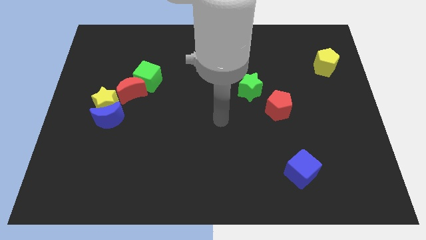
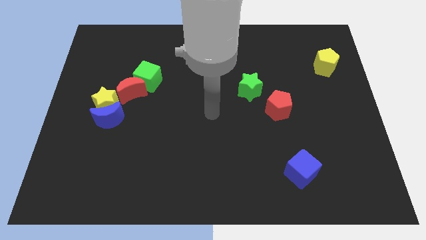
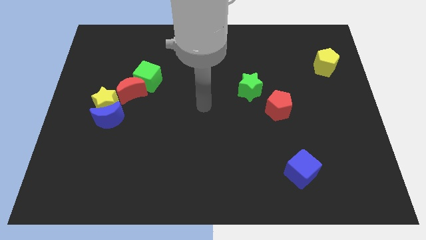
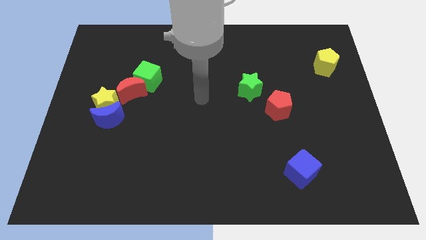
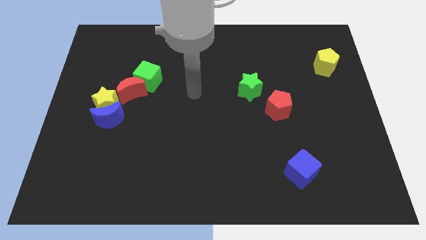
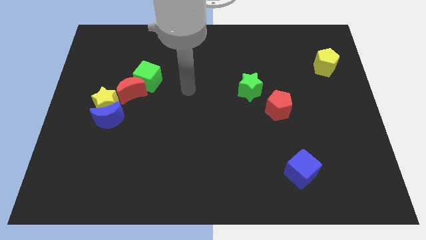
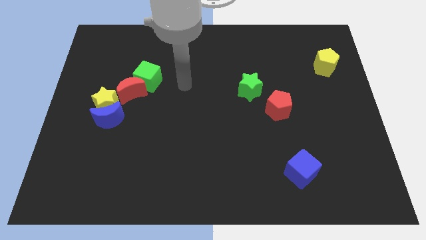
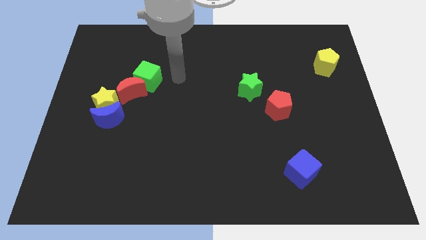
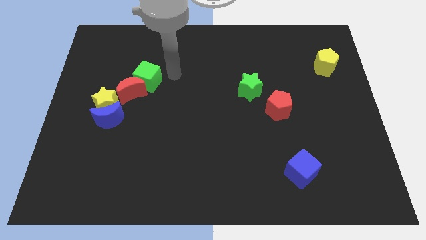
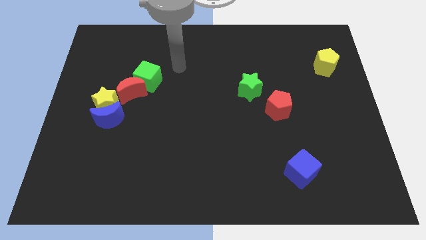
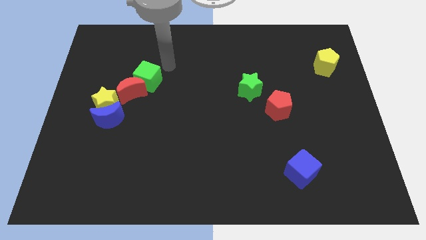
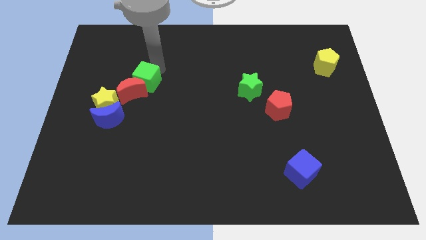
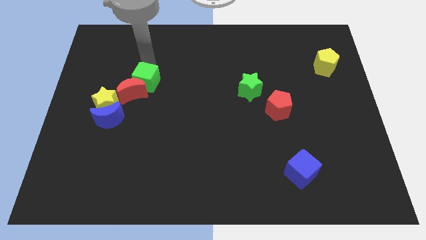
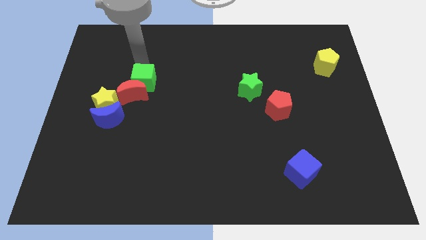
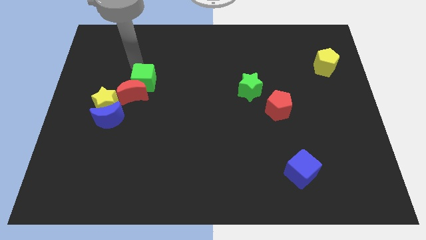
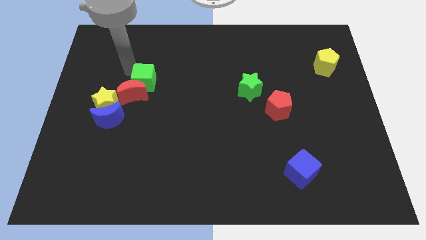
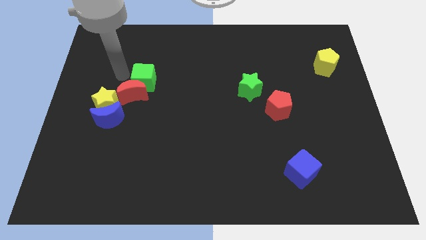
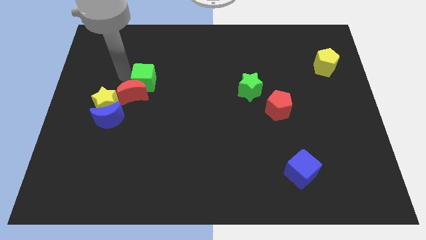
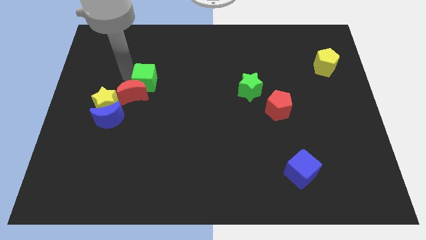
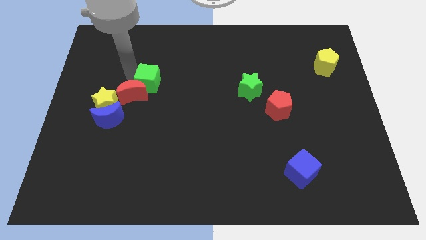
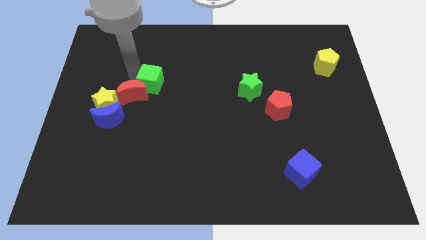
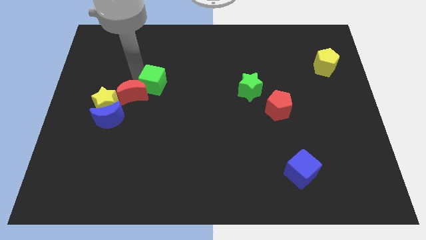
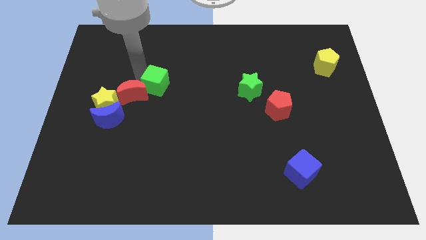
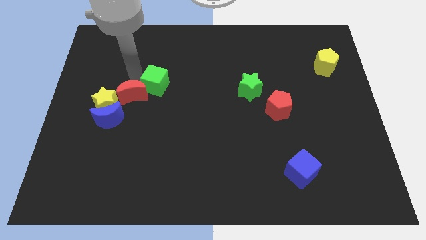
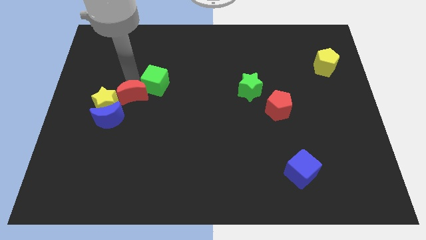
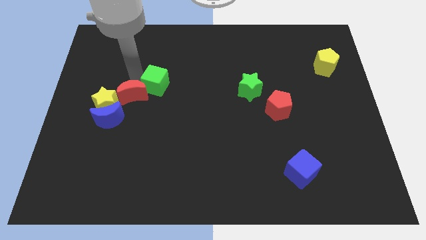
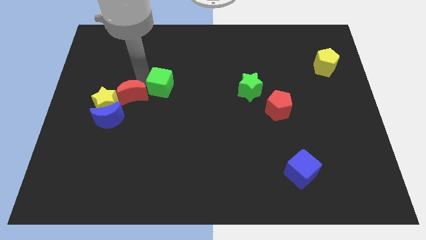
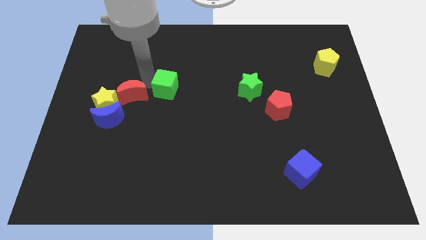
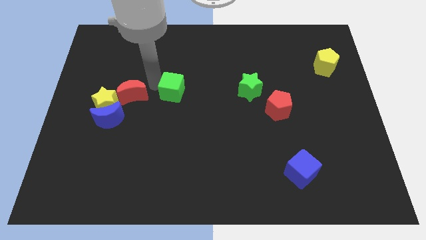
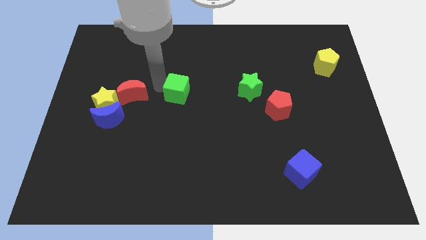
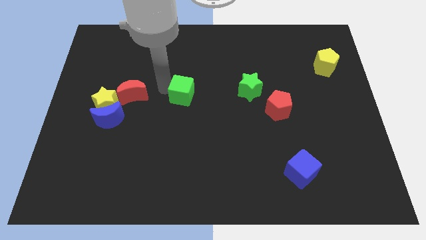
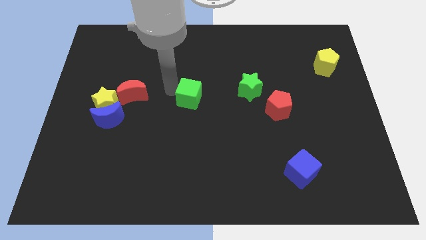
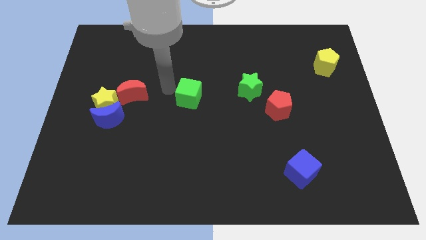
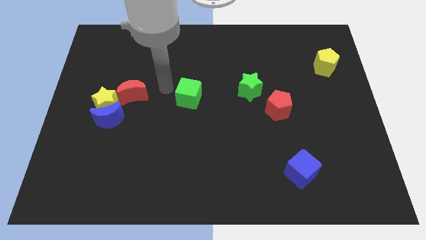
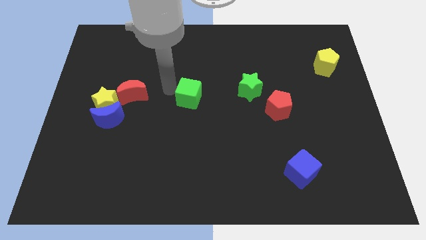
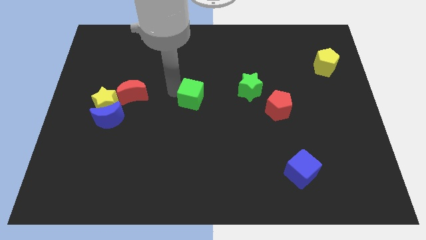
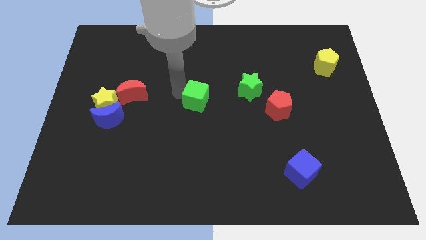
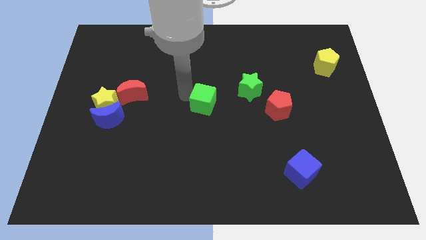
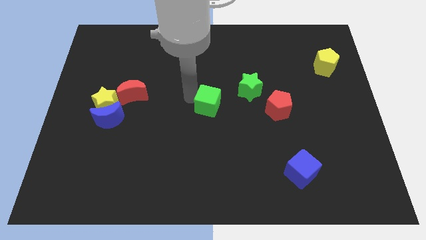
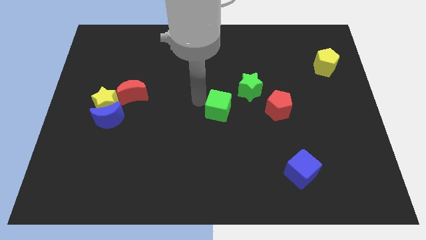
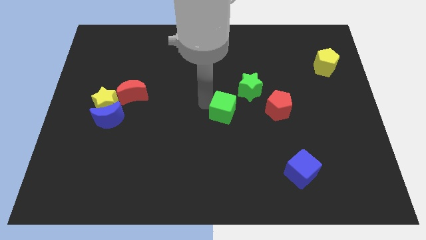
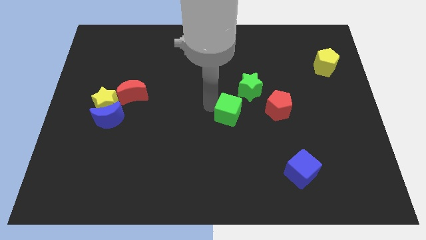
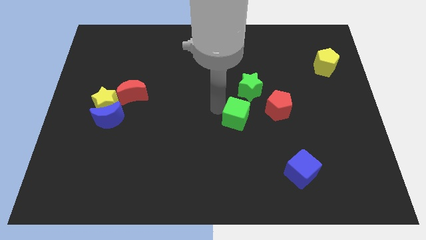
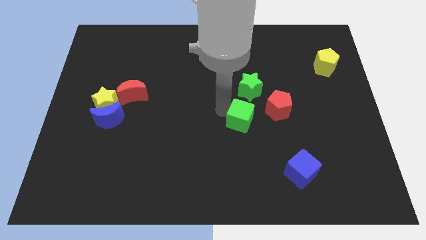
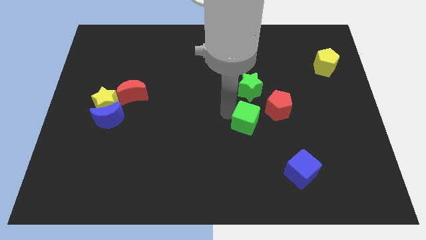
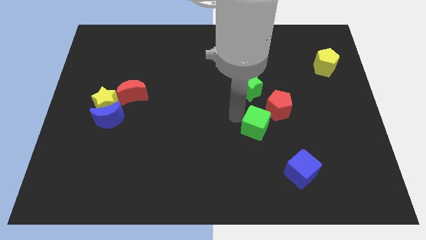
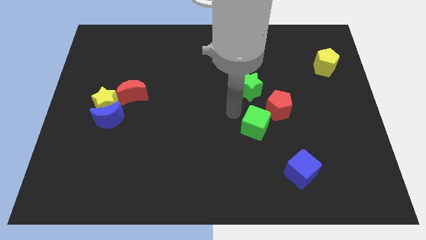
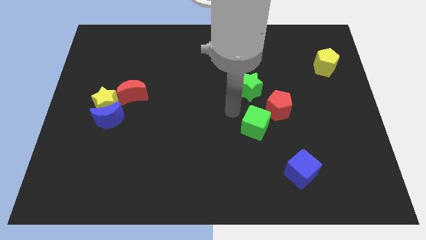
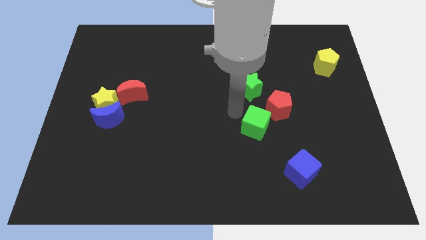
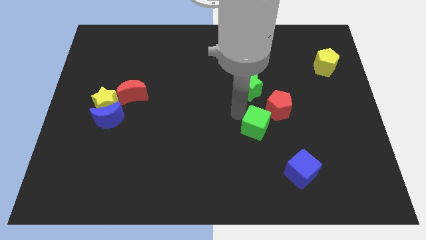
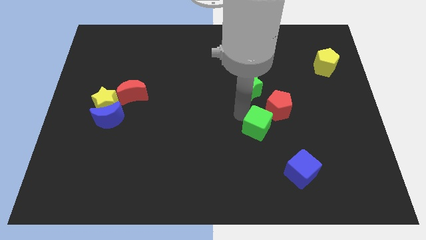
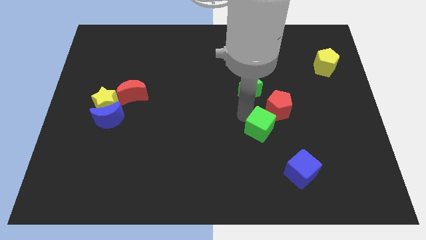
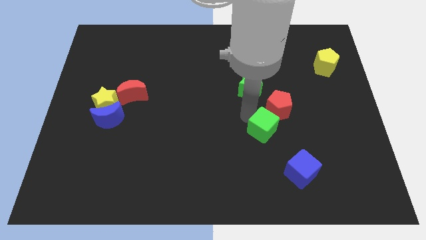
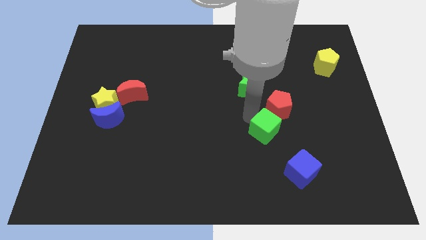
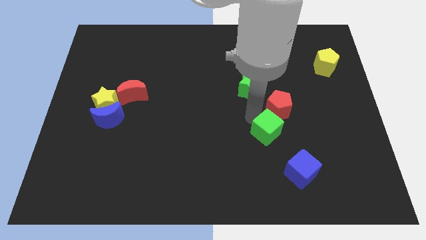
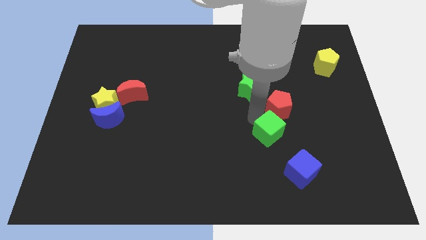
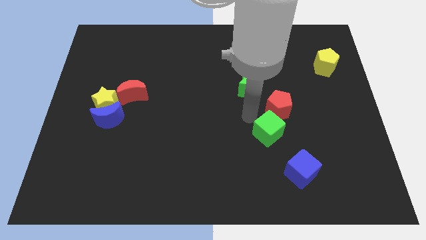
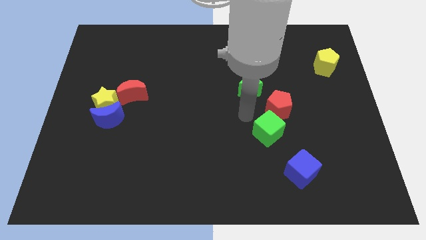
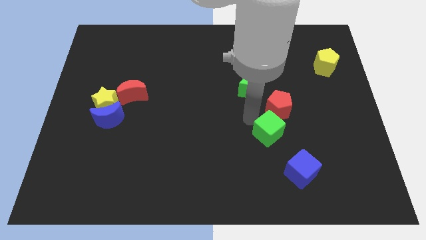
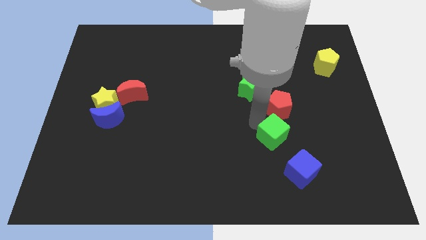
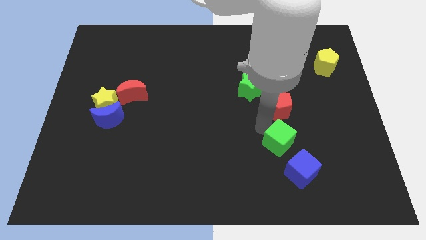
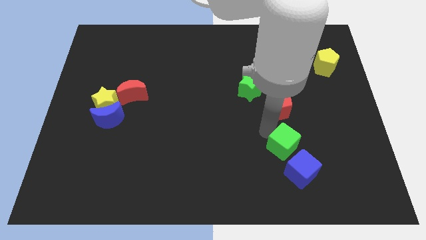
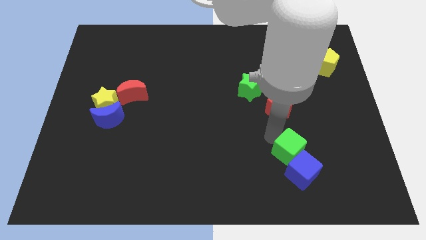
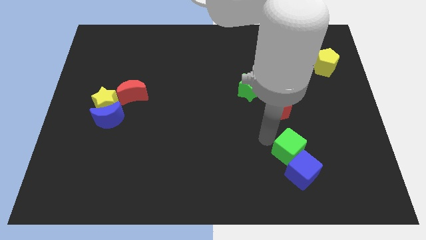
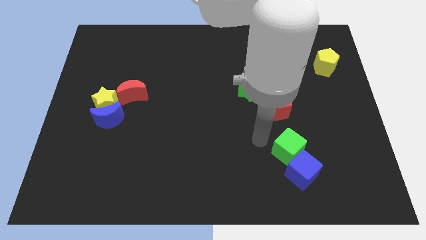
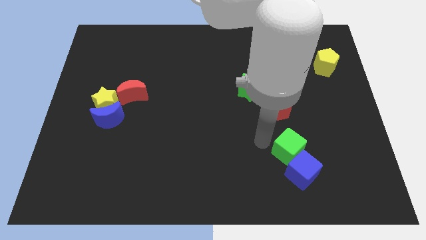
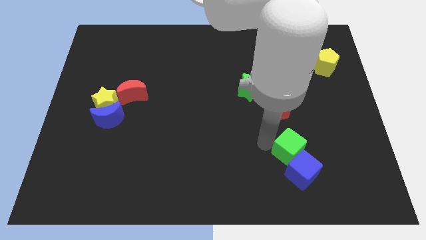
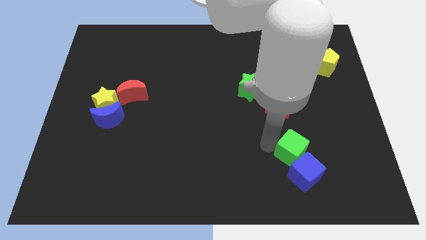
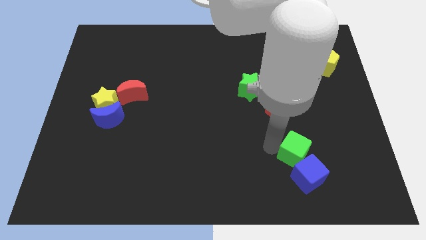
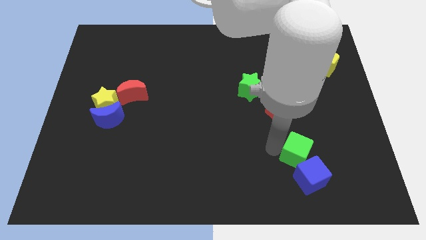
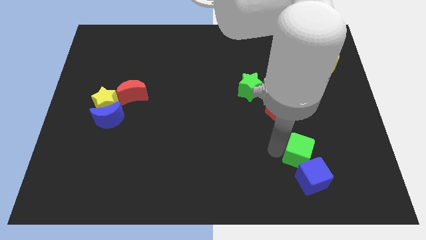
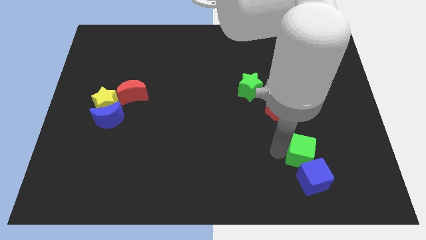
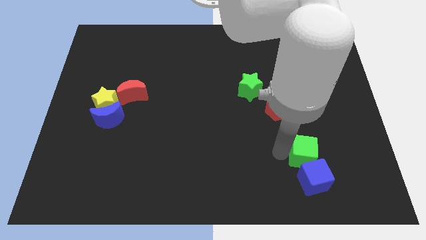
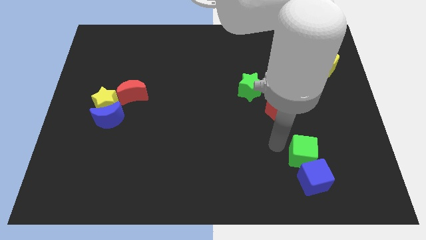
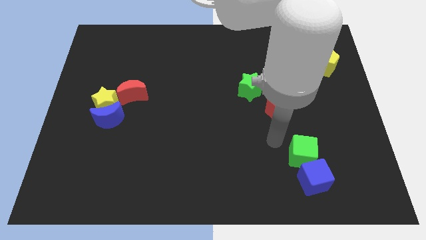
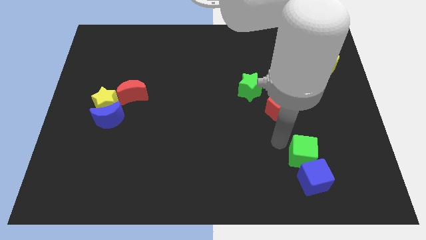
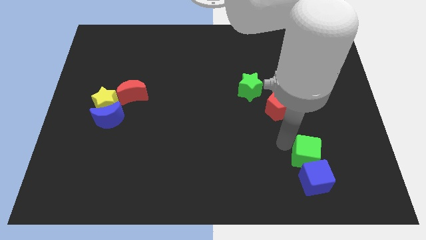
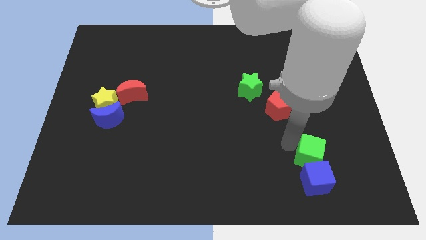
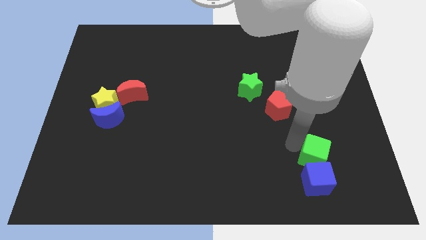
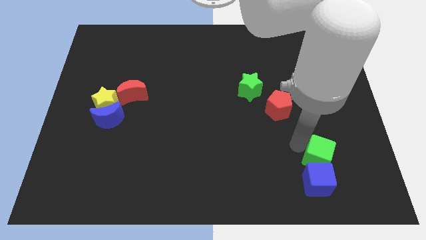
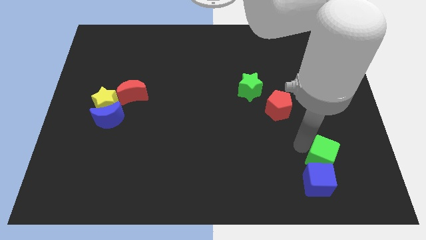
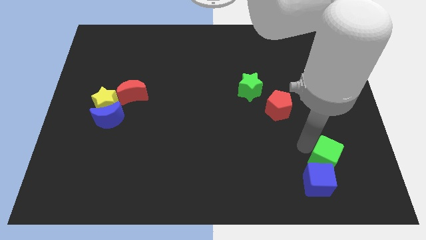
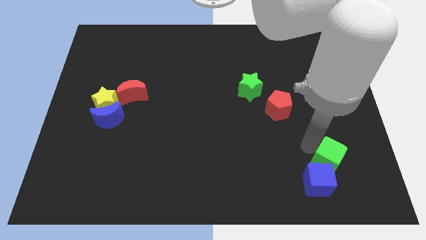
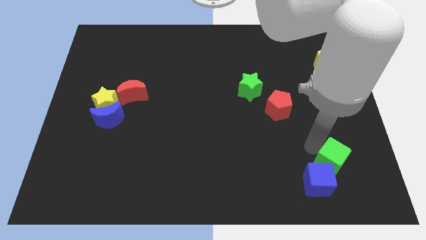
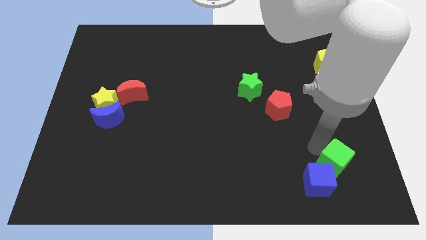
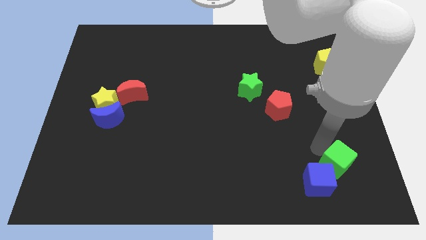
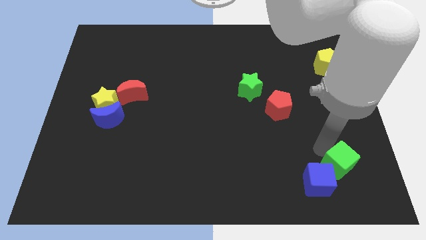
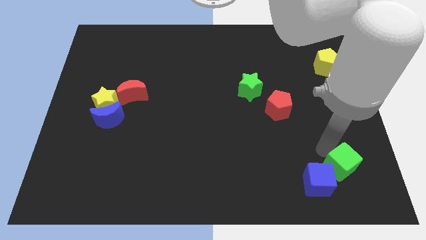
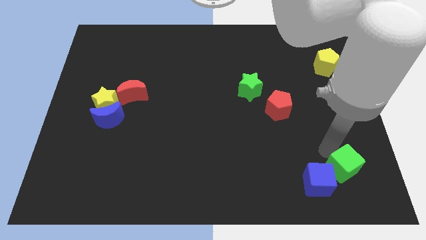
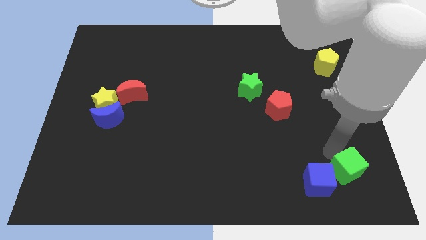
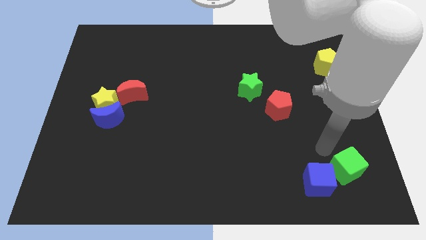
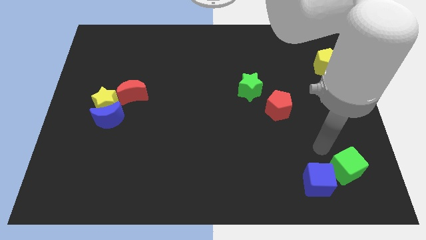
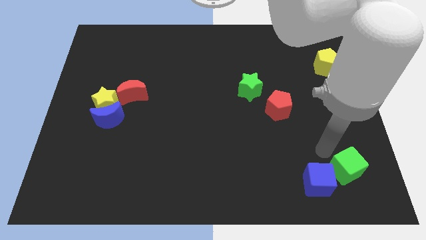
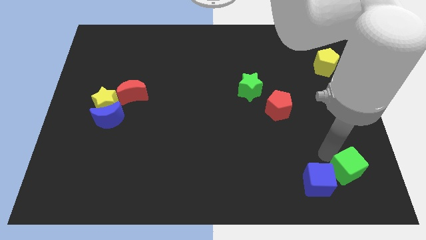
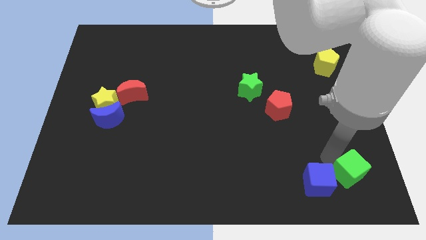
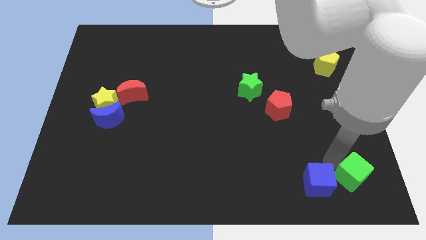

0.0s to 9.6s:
push the green cube to the lower right corner
